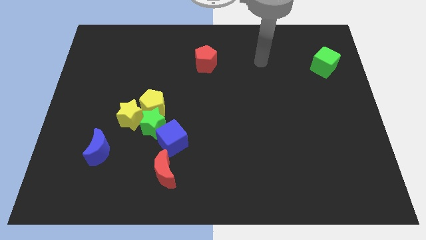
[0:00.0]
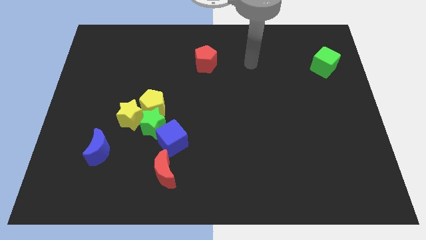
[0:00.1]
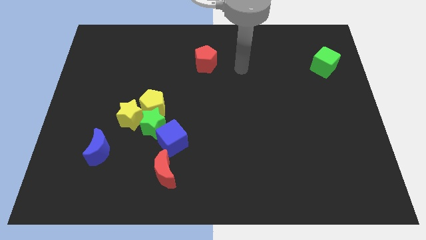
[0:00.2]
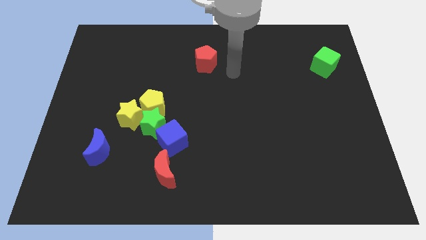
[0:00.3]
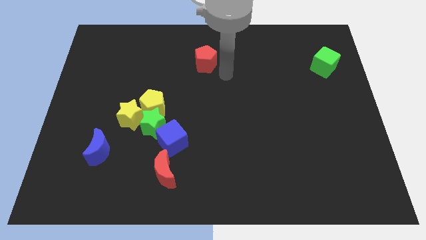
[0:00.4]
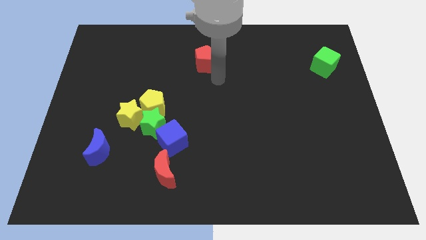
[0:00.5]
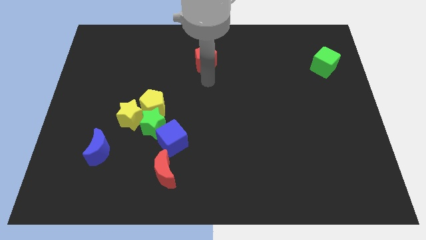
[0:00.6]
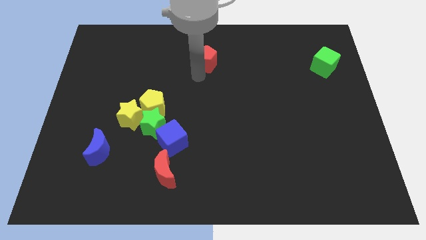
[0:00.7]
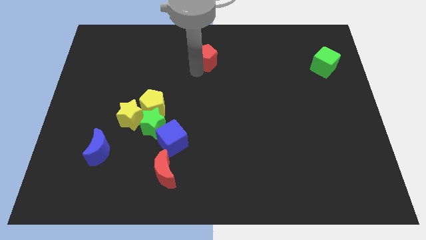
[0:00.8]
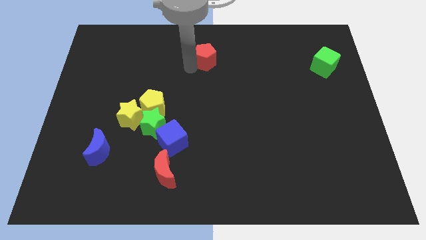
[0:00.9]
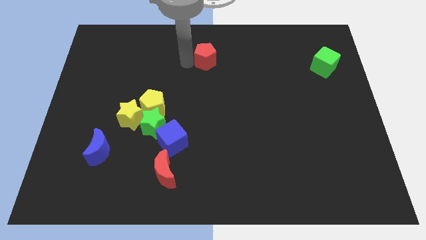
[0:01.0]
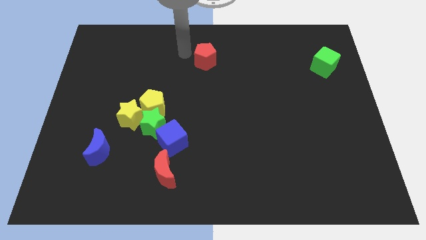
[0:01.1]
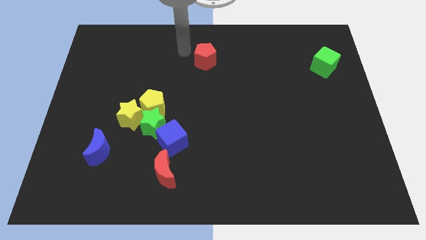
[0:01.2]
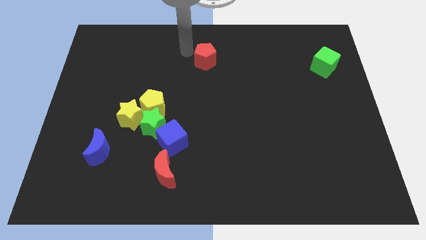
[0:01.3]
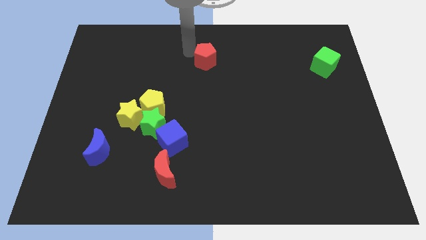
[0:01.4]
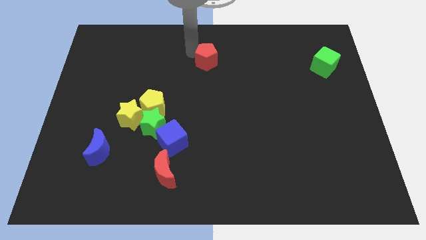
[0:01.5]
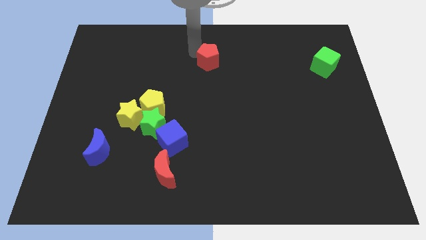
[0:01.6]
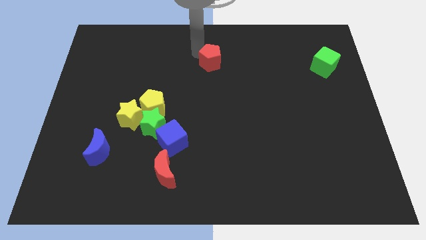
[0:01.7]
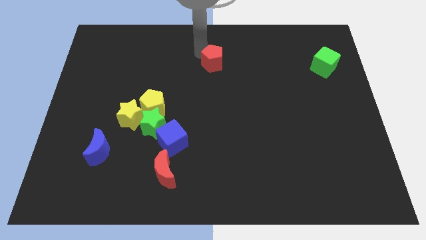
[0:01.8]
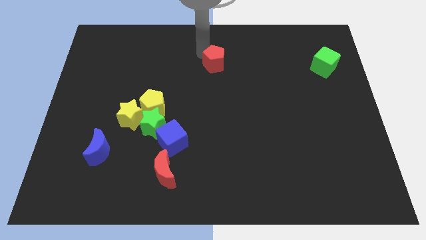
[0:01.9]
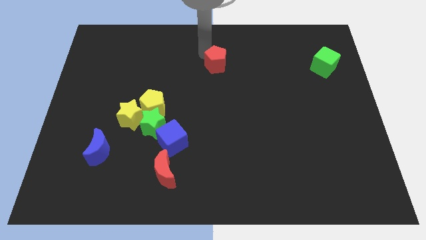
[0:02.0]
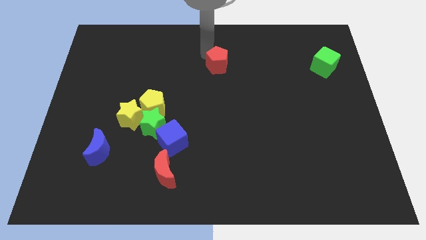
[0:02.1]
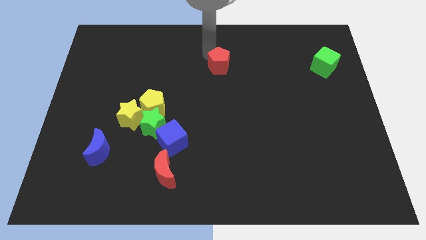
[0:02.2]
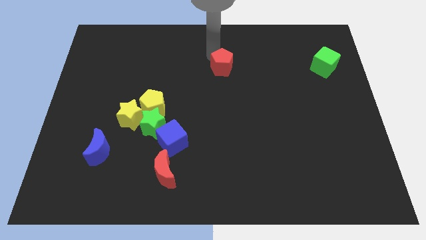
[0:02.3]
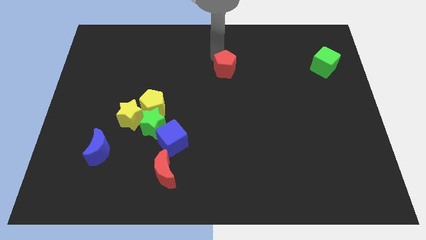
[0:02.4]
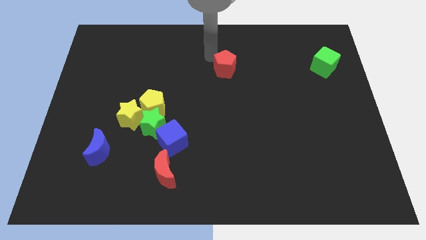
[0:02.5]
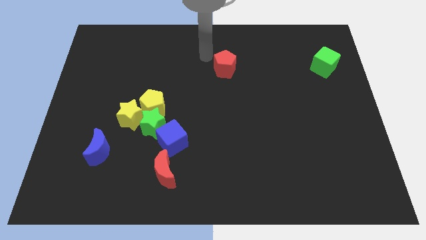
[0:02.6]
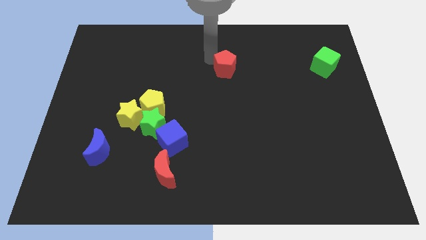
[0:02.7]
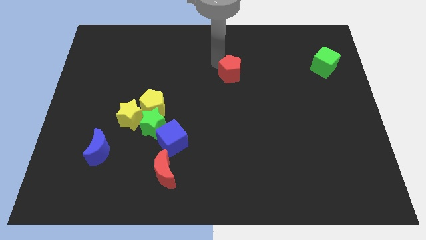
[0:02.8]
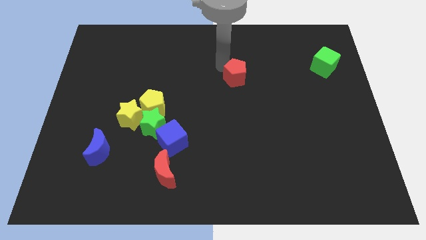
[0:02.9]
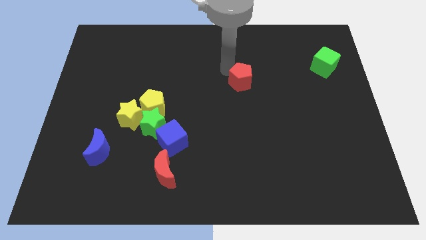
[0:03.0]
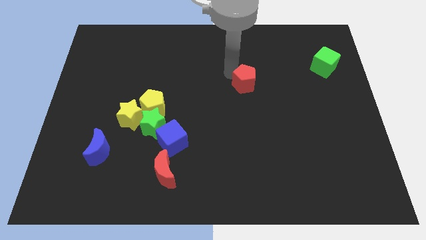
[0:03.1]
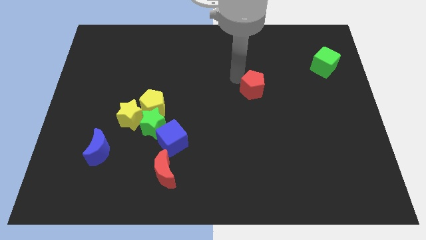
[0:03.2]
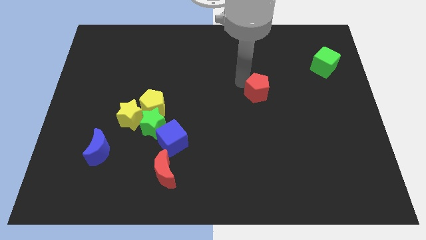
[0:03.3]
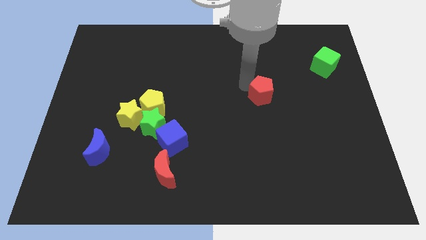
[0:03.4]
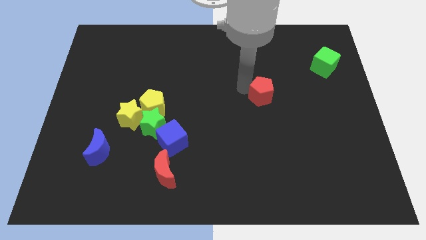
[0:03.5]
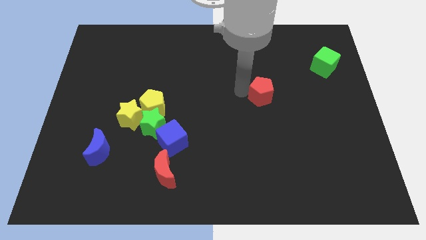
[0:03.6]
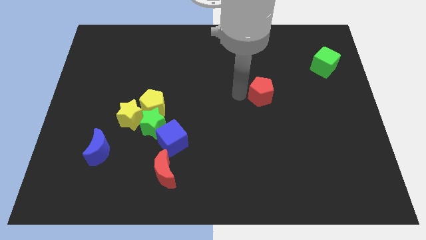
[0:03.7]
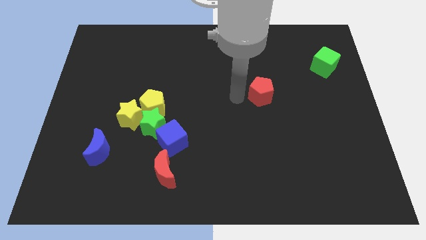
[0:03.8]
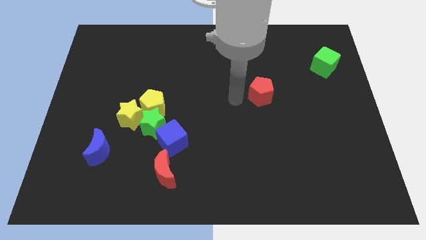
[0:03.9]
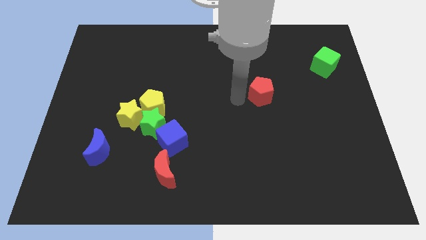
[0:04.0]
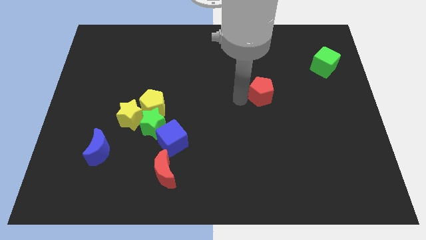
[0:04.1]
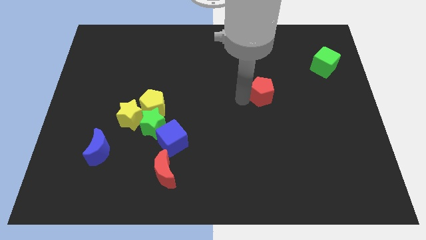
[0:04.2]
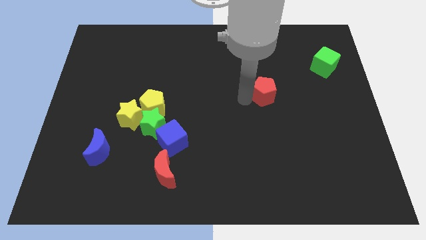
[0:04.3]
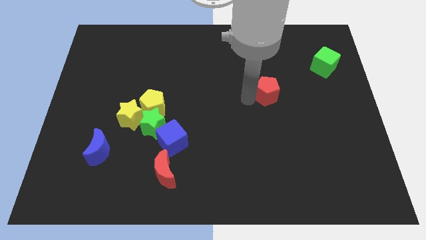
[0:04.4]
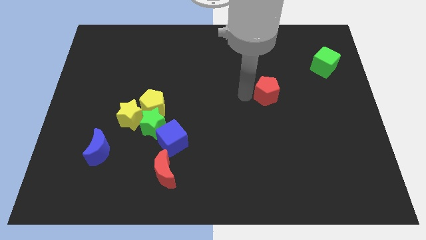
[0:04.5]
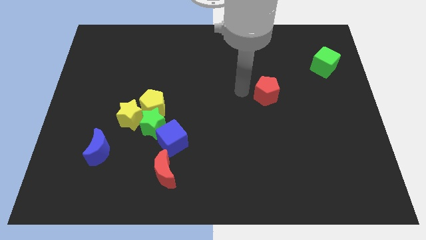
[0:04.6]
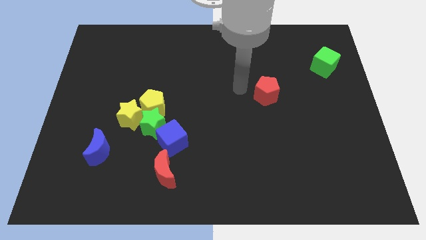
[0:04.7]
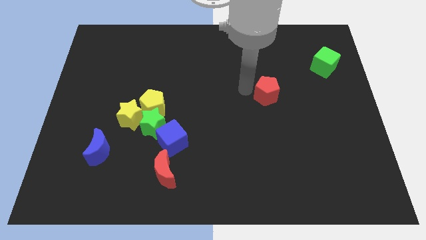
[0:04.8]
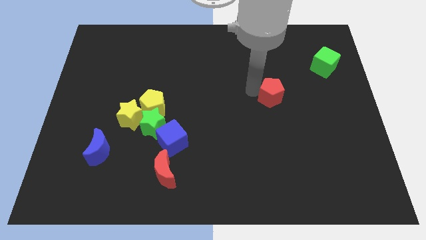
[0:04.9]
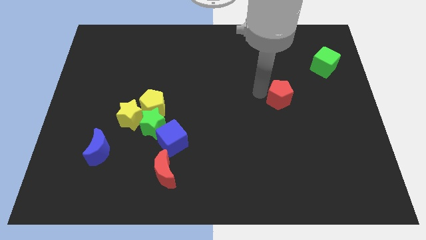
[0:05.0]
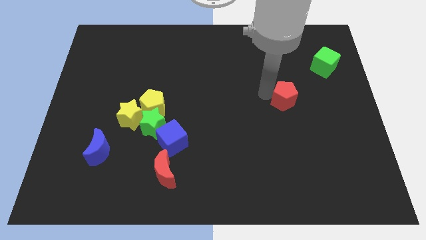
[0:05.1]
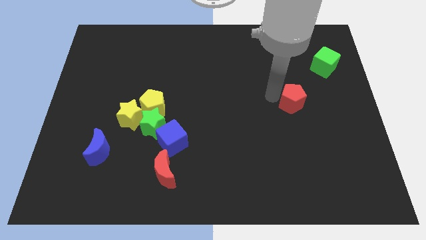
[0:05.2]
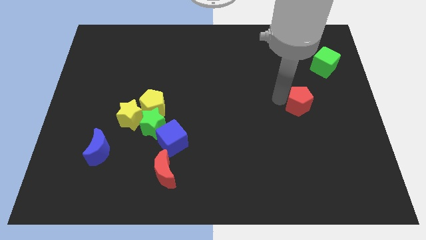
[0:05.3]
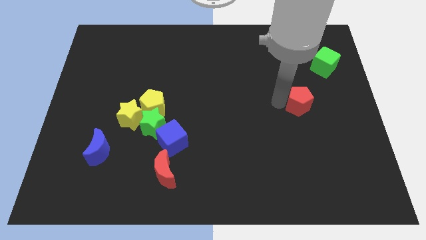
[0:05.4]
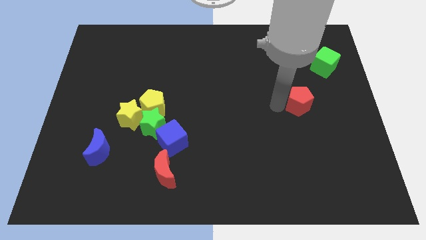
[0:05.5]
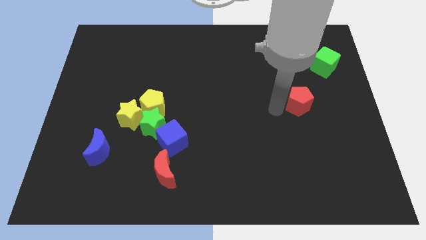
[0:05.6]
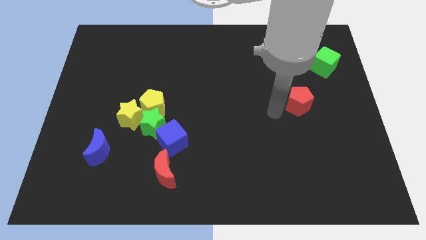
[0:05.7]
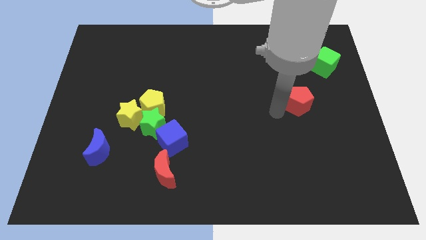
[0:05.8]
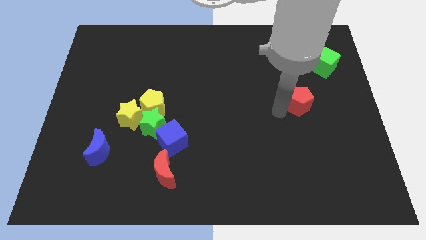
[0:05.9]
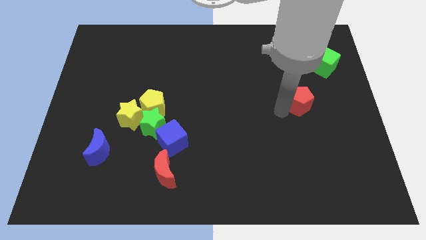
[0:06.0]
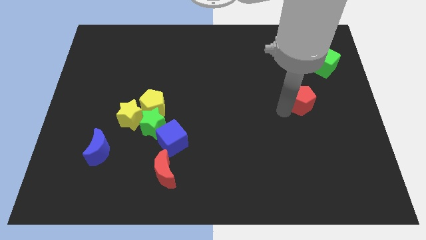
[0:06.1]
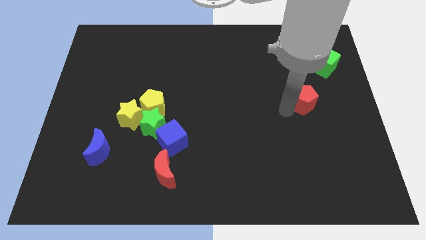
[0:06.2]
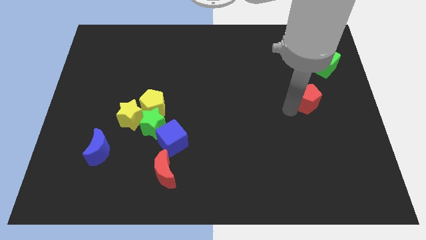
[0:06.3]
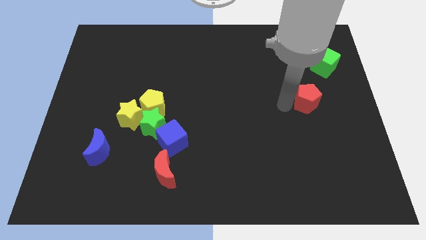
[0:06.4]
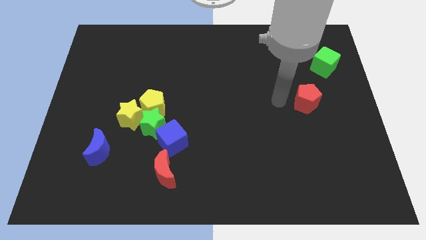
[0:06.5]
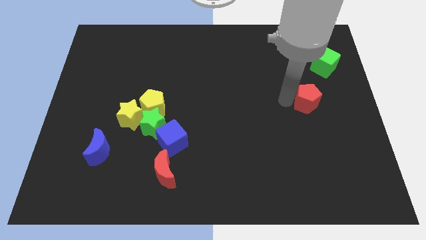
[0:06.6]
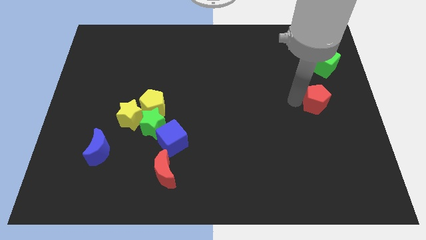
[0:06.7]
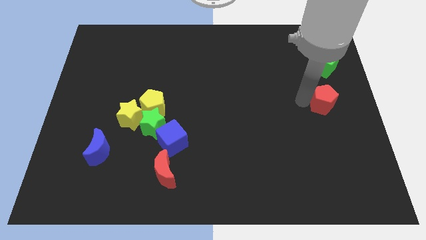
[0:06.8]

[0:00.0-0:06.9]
push the red pentagon to the center right
